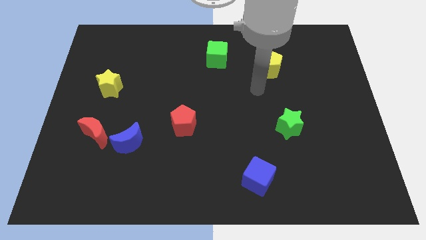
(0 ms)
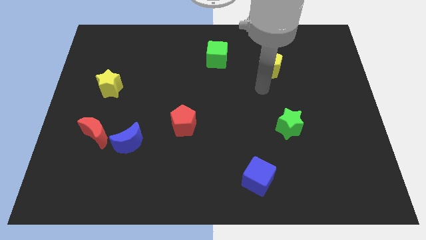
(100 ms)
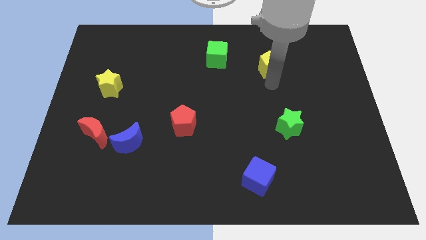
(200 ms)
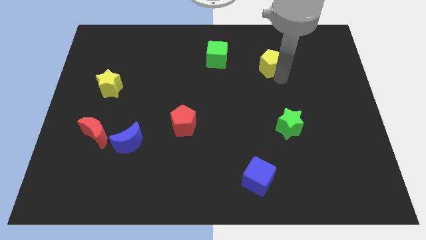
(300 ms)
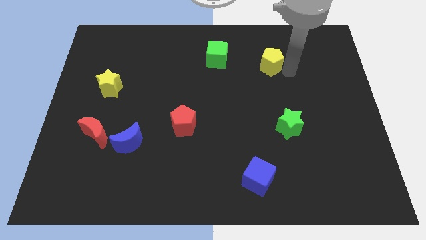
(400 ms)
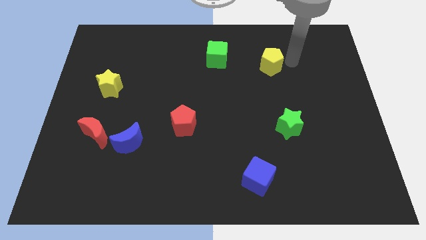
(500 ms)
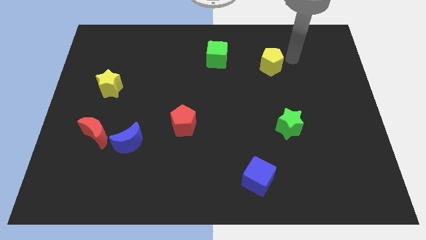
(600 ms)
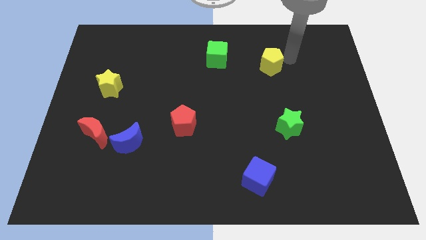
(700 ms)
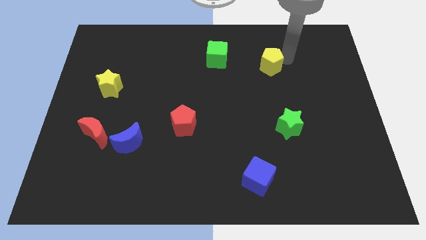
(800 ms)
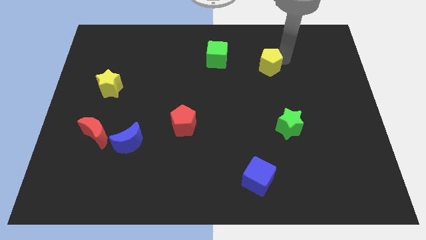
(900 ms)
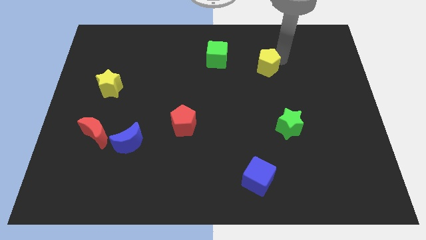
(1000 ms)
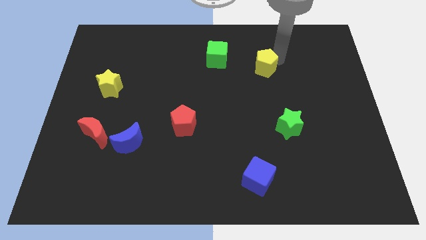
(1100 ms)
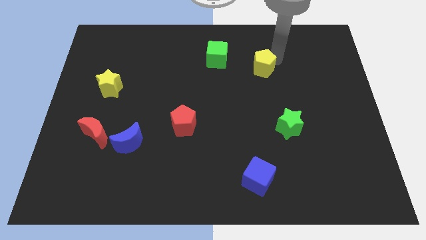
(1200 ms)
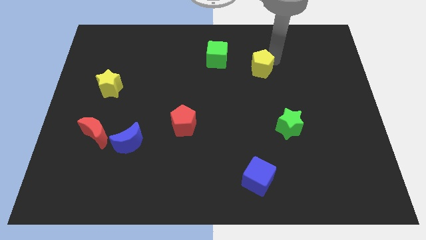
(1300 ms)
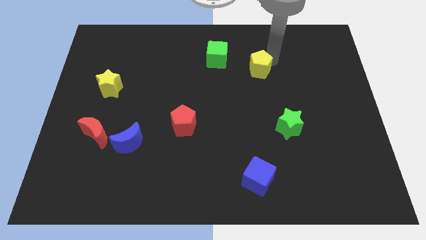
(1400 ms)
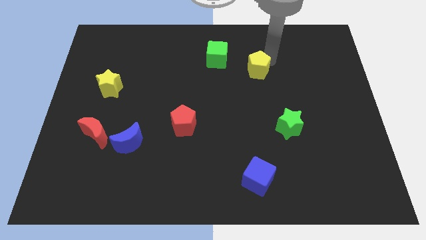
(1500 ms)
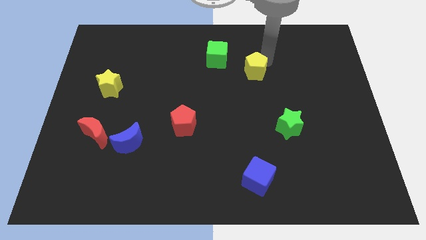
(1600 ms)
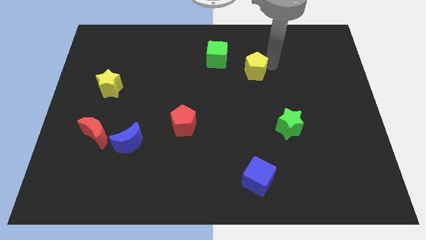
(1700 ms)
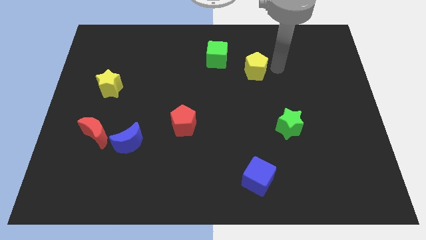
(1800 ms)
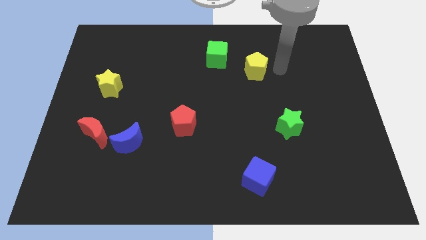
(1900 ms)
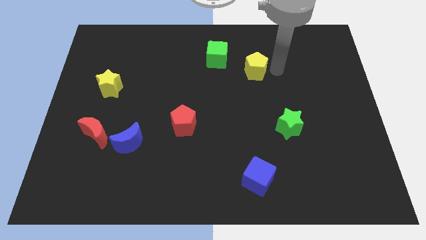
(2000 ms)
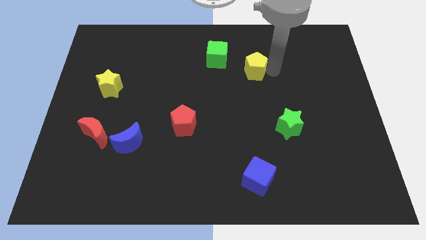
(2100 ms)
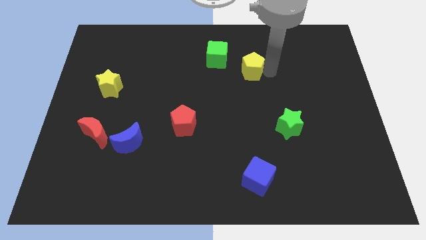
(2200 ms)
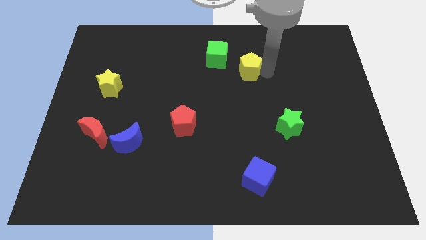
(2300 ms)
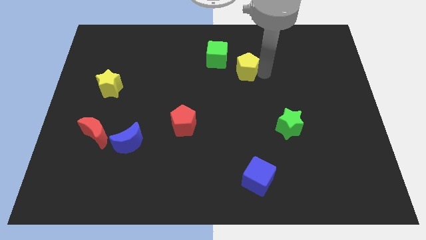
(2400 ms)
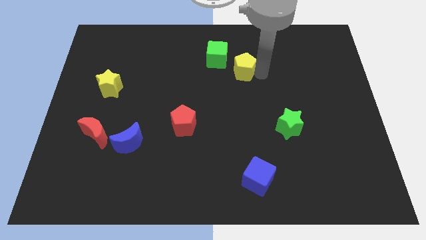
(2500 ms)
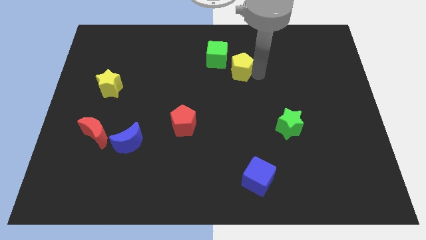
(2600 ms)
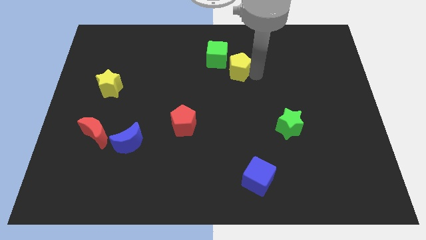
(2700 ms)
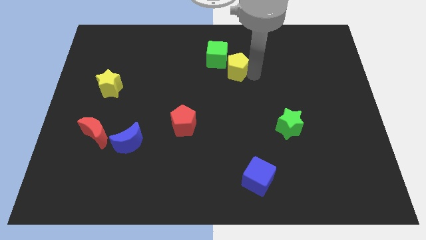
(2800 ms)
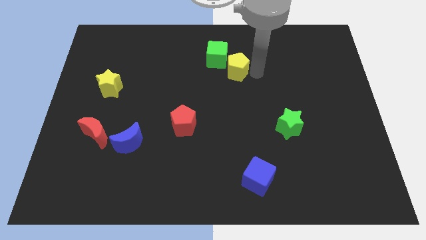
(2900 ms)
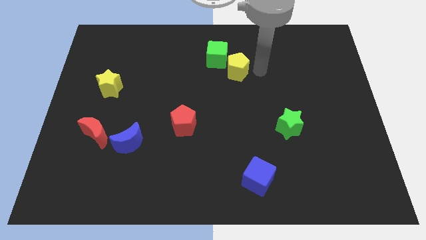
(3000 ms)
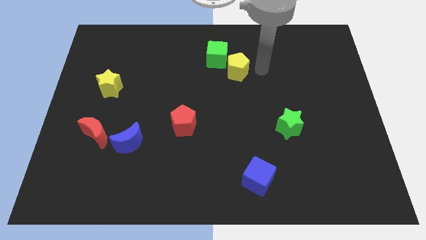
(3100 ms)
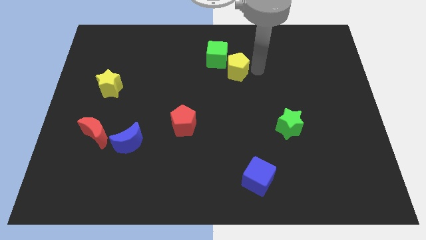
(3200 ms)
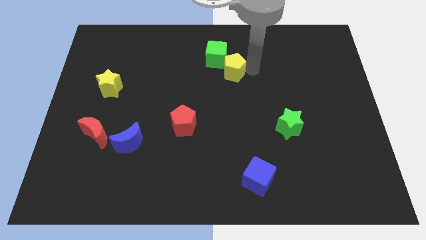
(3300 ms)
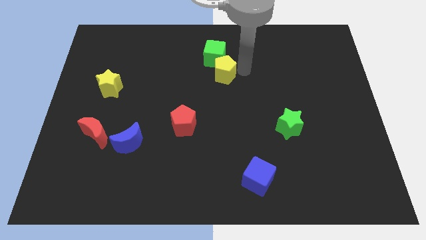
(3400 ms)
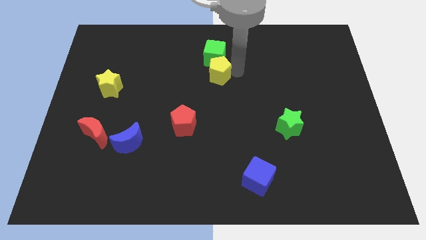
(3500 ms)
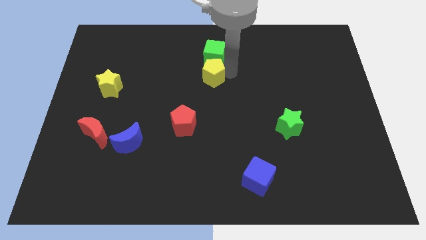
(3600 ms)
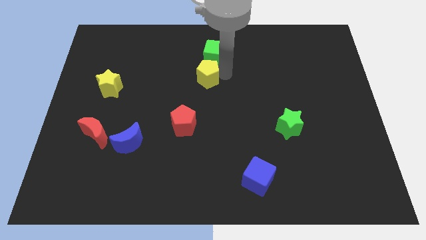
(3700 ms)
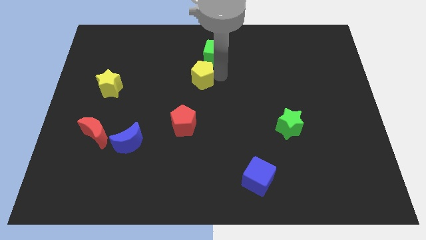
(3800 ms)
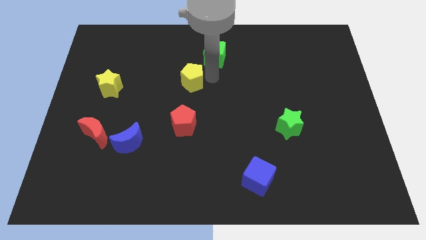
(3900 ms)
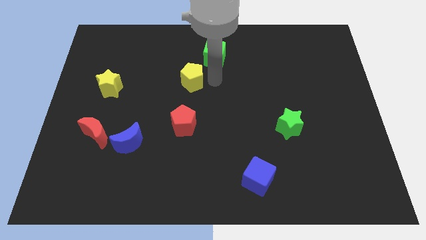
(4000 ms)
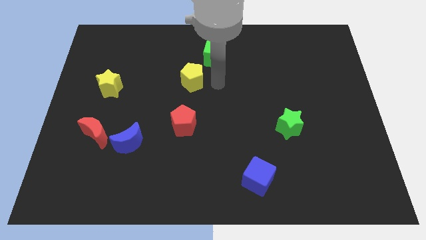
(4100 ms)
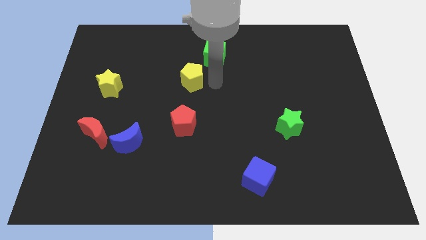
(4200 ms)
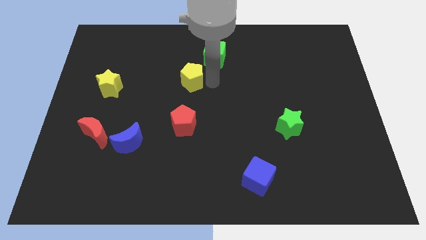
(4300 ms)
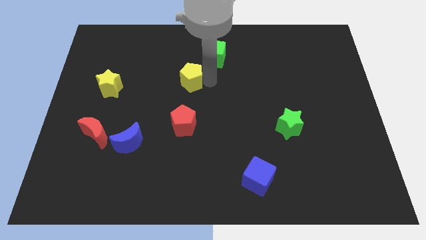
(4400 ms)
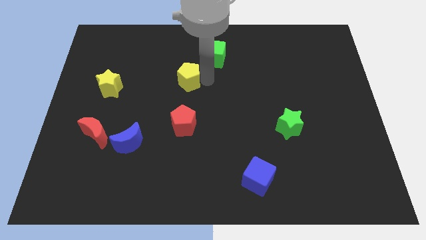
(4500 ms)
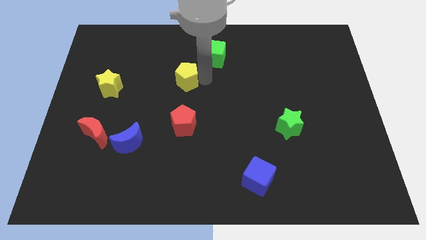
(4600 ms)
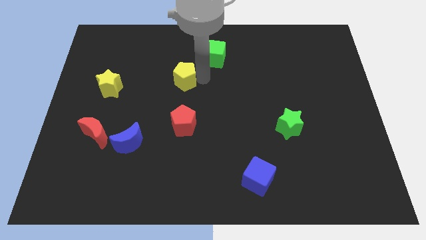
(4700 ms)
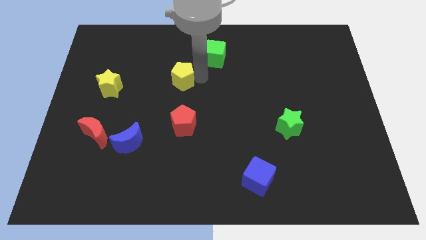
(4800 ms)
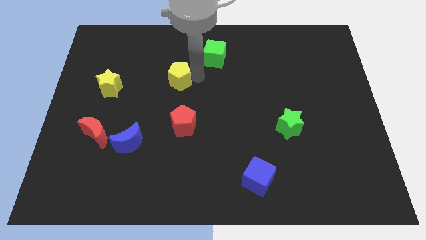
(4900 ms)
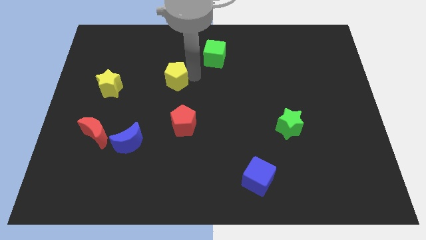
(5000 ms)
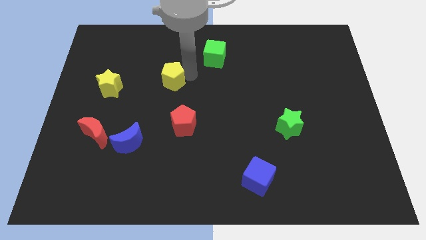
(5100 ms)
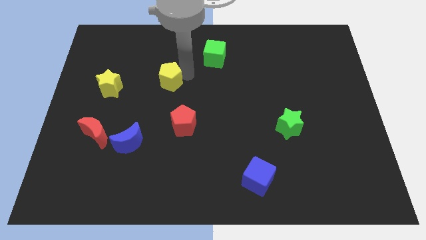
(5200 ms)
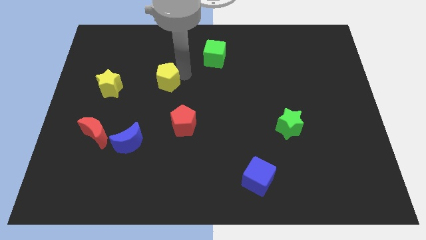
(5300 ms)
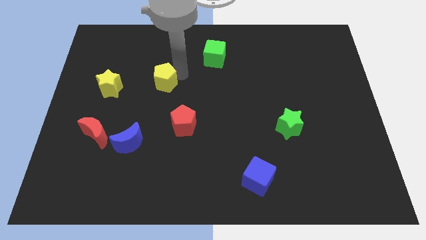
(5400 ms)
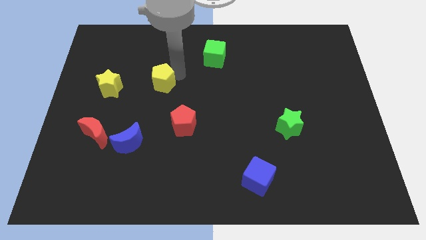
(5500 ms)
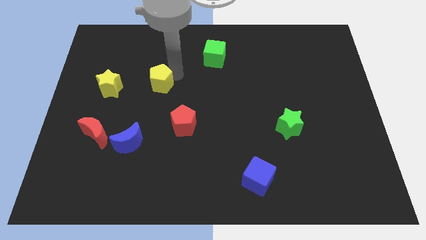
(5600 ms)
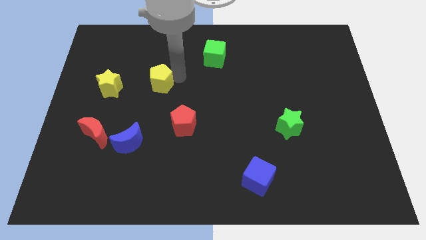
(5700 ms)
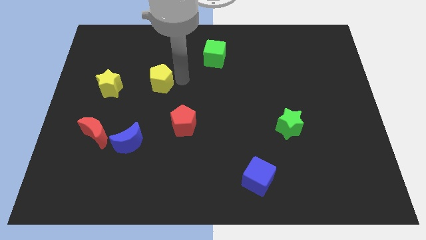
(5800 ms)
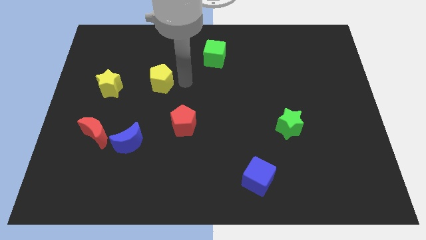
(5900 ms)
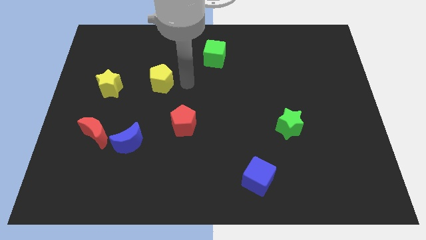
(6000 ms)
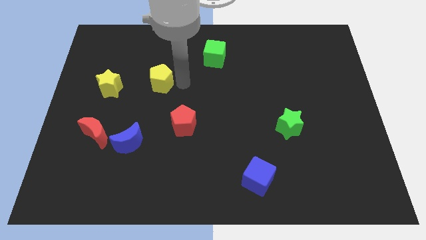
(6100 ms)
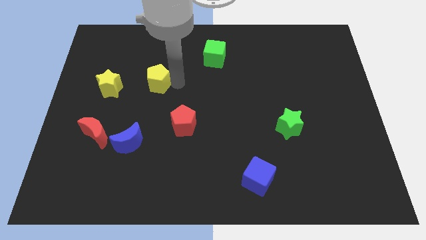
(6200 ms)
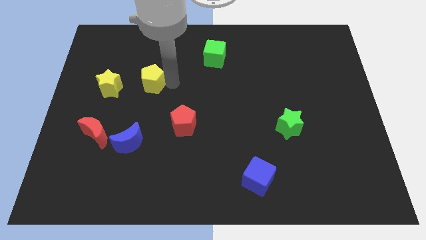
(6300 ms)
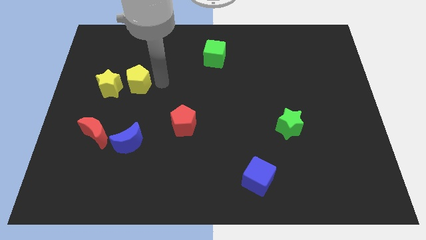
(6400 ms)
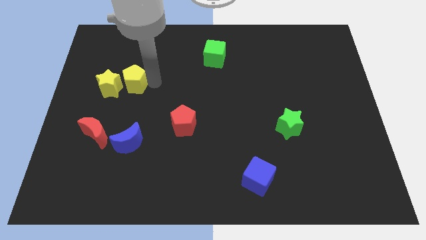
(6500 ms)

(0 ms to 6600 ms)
move the yellow pentagon next to the yellow star
